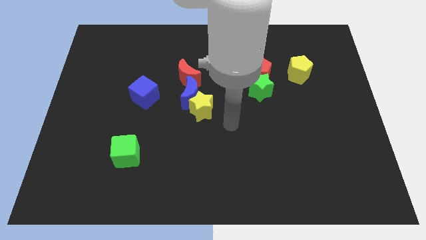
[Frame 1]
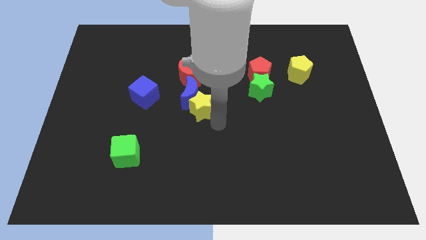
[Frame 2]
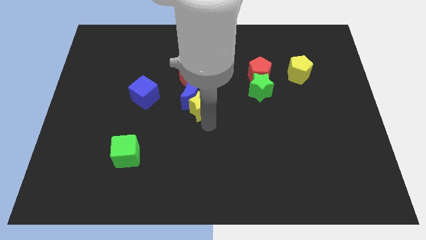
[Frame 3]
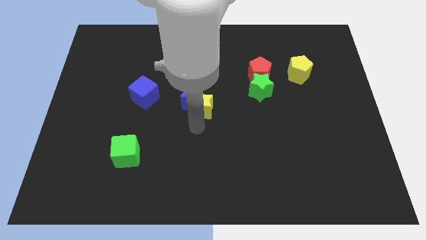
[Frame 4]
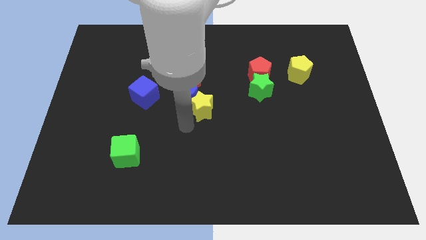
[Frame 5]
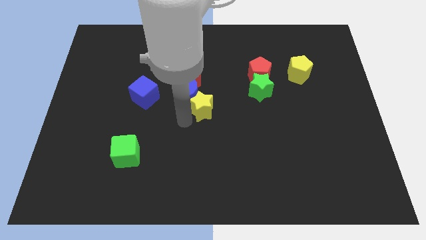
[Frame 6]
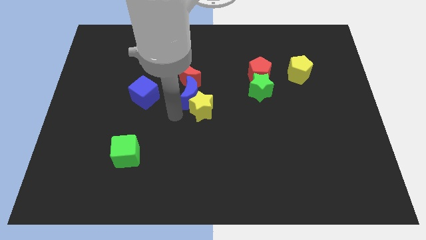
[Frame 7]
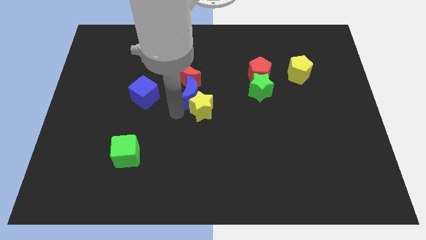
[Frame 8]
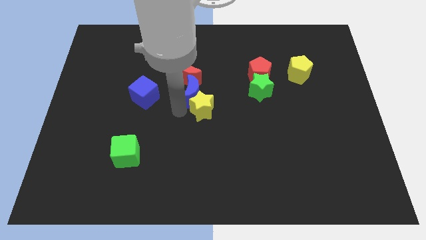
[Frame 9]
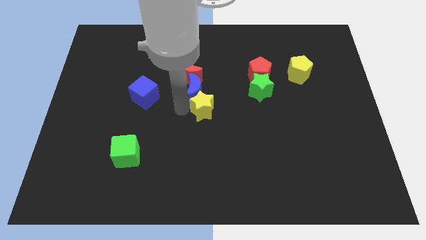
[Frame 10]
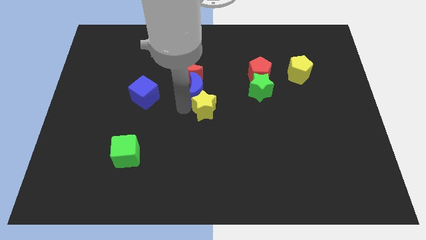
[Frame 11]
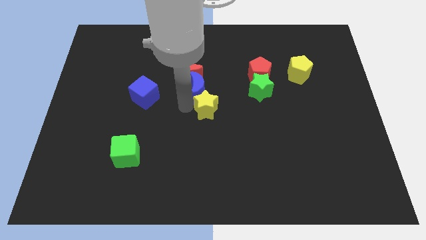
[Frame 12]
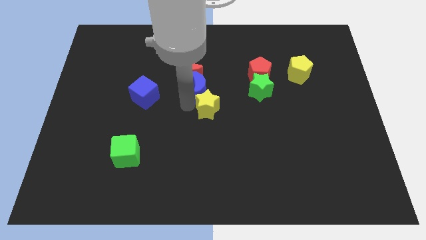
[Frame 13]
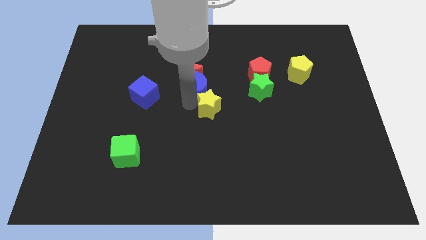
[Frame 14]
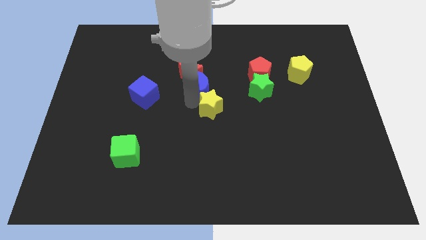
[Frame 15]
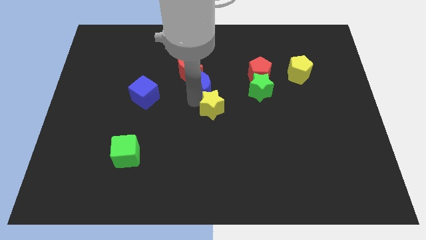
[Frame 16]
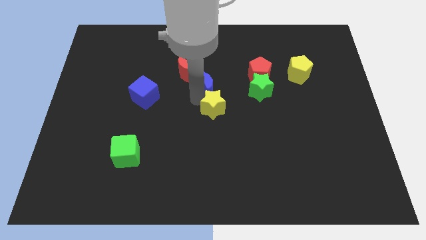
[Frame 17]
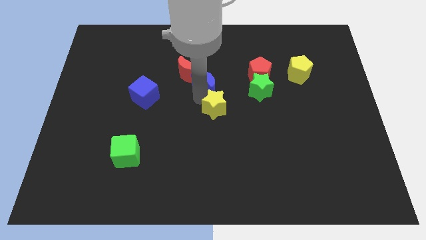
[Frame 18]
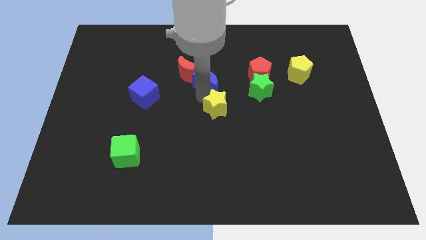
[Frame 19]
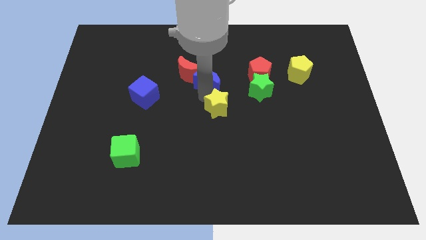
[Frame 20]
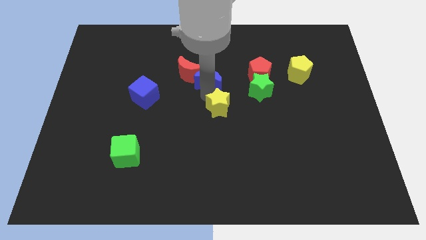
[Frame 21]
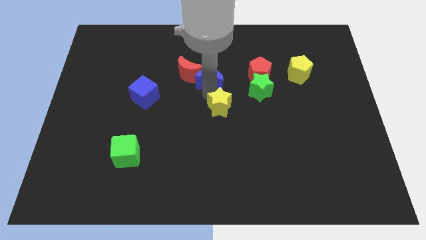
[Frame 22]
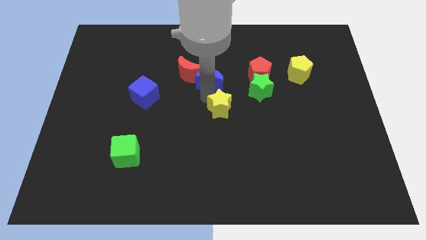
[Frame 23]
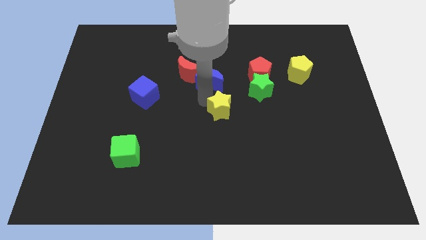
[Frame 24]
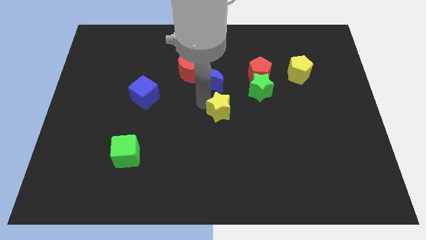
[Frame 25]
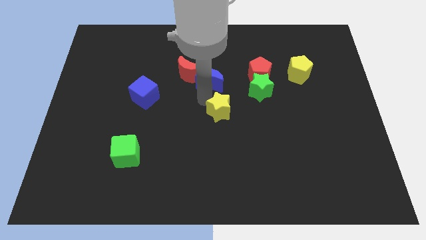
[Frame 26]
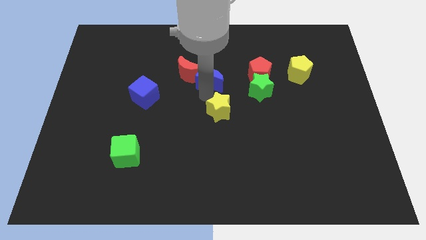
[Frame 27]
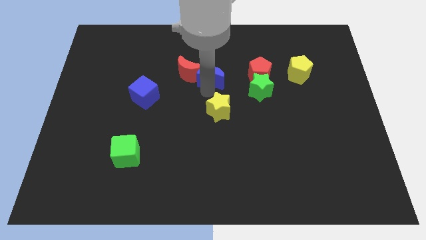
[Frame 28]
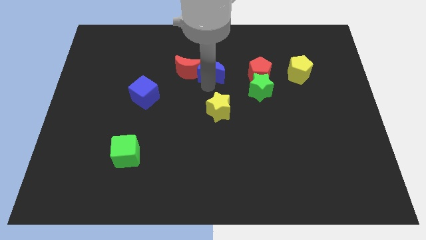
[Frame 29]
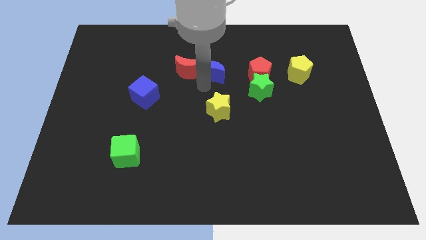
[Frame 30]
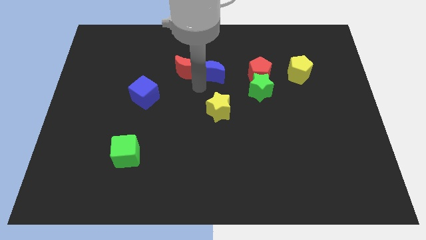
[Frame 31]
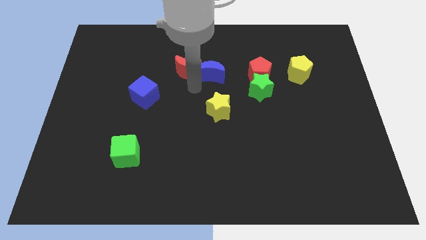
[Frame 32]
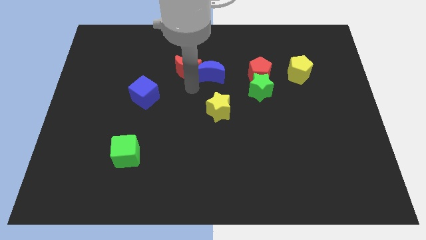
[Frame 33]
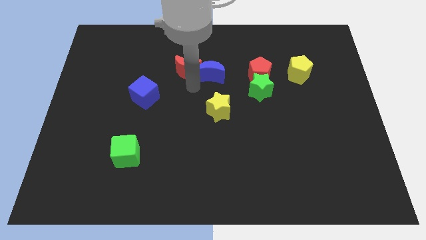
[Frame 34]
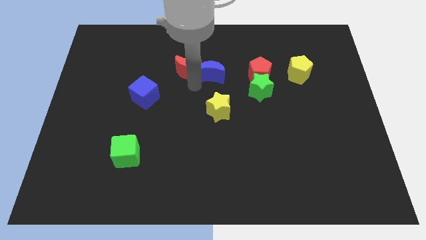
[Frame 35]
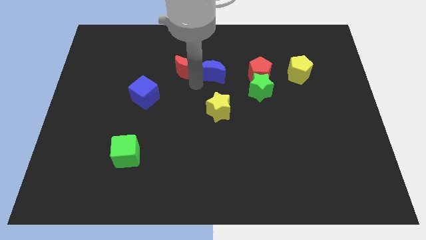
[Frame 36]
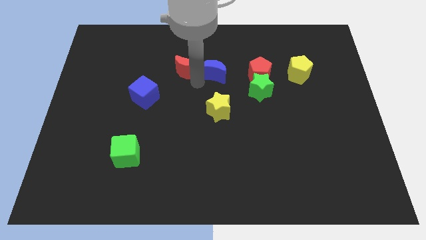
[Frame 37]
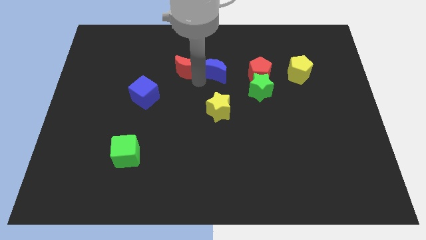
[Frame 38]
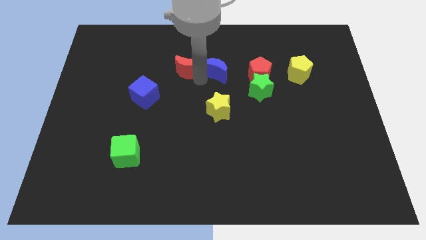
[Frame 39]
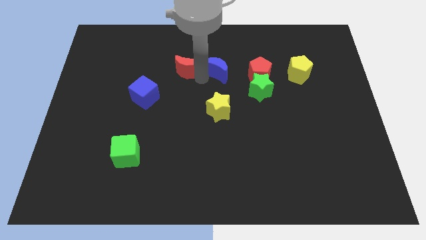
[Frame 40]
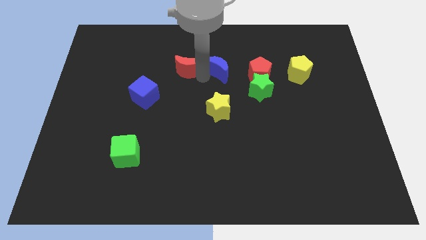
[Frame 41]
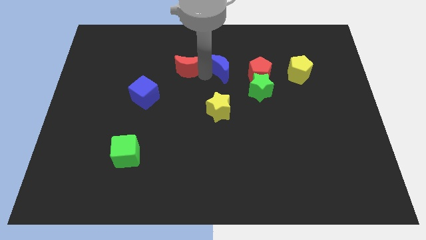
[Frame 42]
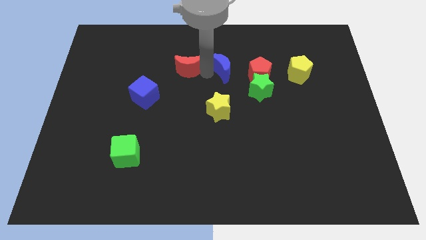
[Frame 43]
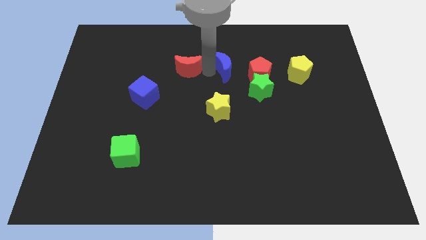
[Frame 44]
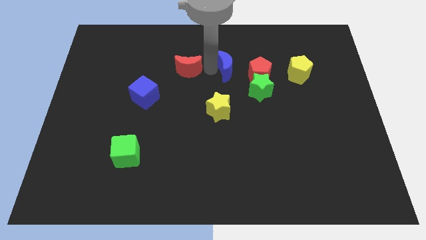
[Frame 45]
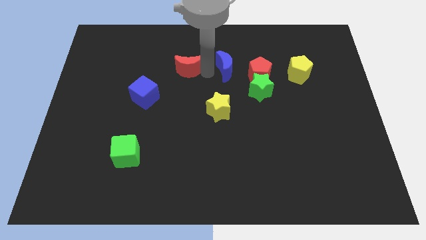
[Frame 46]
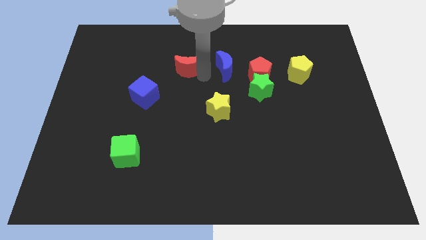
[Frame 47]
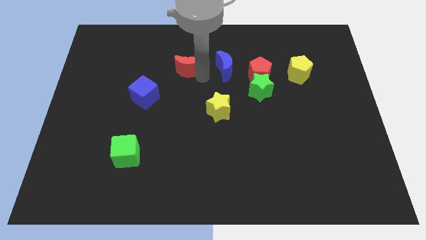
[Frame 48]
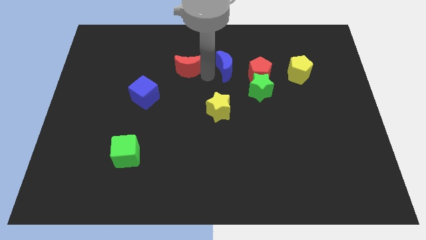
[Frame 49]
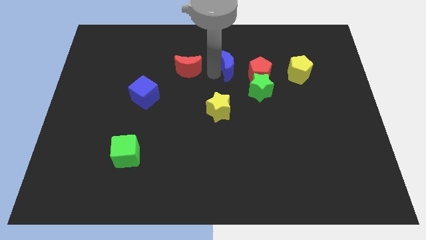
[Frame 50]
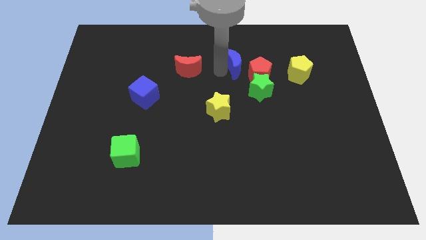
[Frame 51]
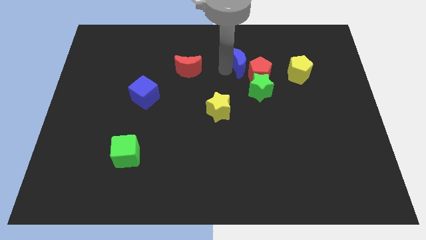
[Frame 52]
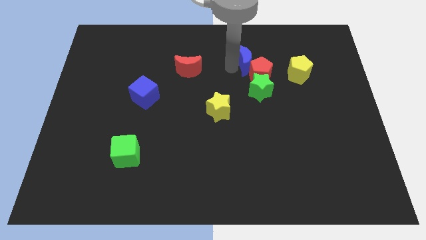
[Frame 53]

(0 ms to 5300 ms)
put the blue moon above the green star

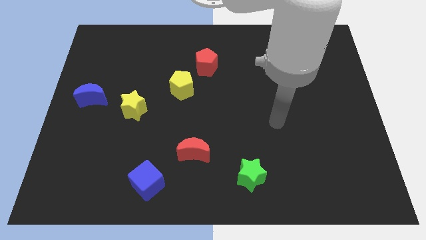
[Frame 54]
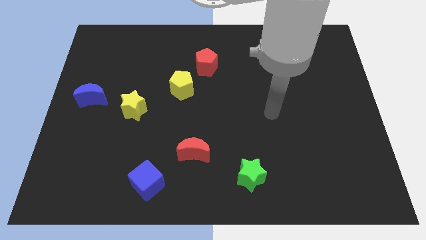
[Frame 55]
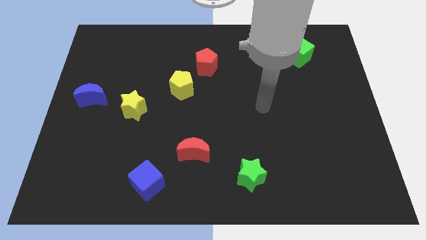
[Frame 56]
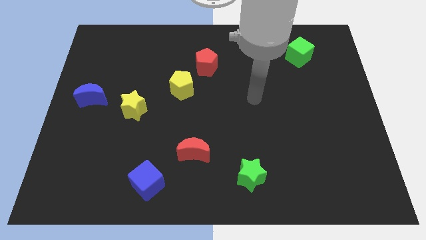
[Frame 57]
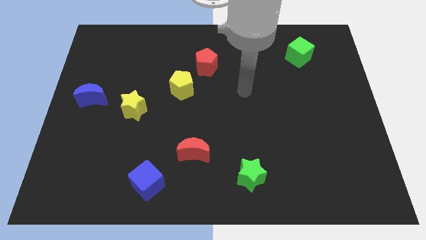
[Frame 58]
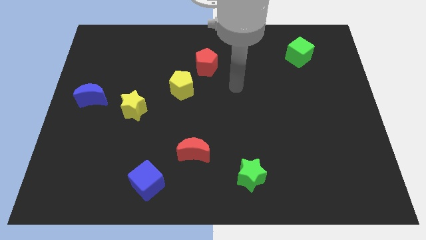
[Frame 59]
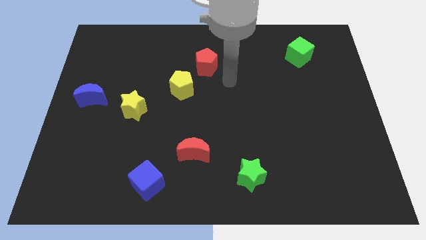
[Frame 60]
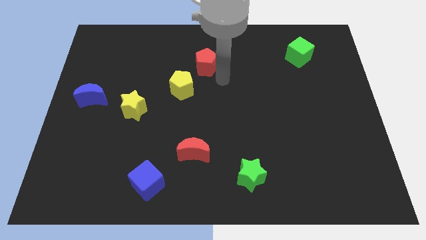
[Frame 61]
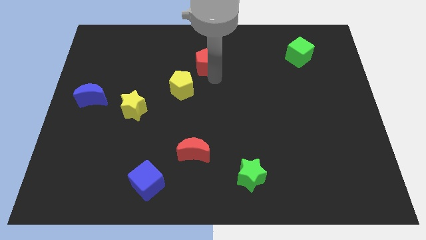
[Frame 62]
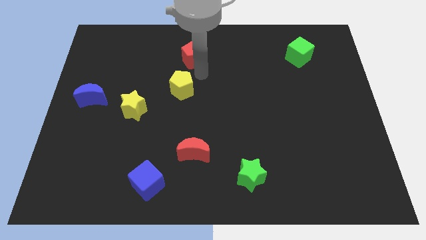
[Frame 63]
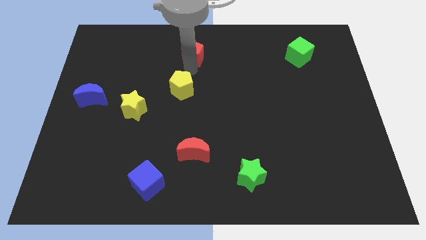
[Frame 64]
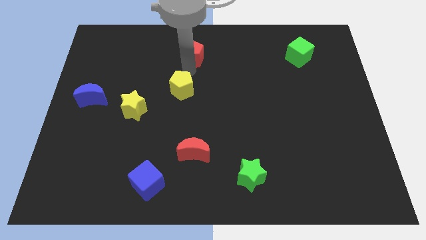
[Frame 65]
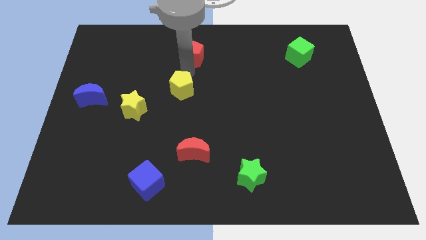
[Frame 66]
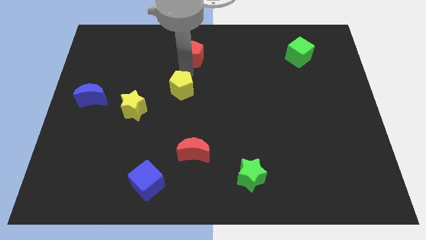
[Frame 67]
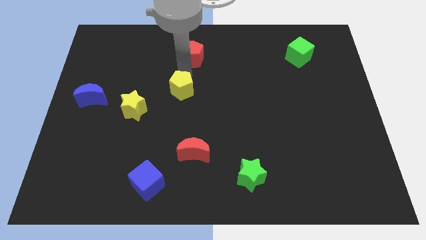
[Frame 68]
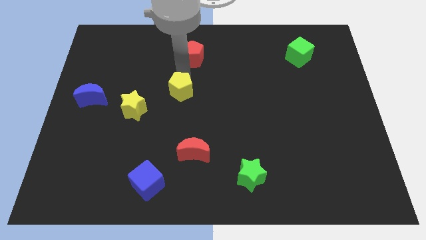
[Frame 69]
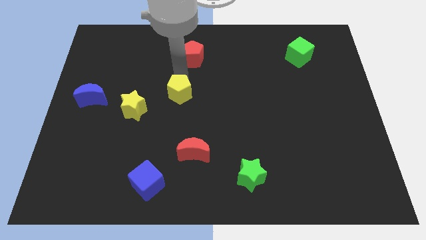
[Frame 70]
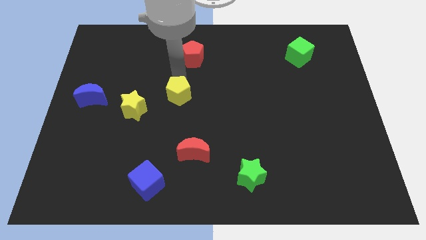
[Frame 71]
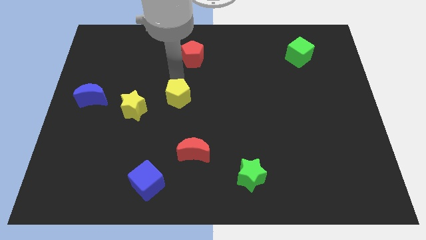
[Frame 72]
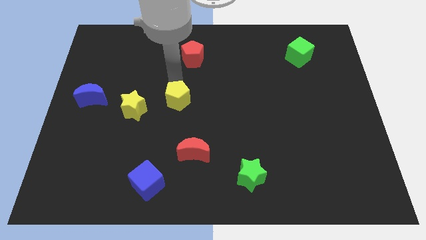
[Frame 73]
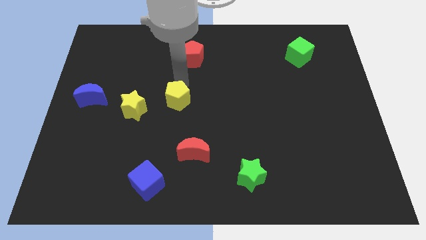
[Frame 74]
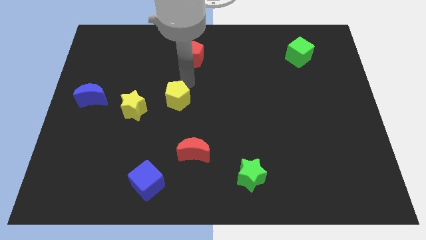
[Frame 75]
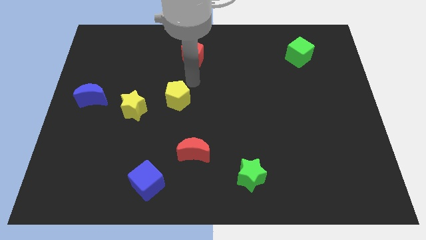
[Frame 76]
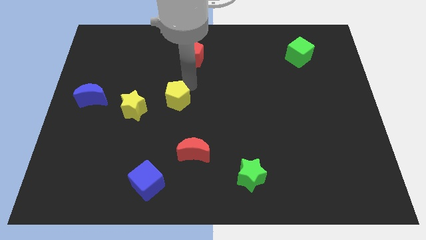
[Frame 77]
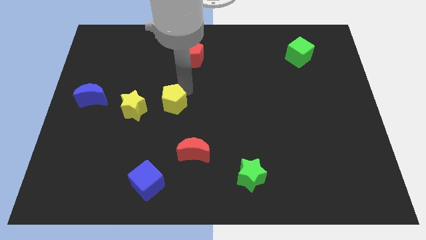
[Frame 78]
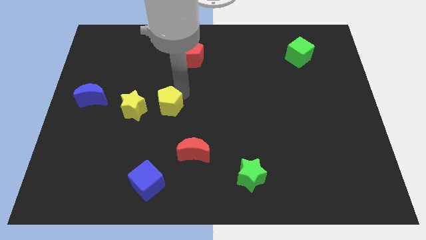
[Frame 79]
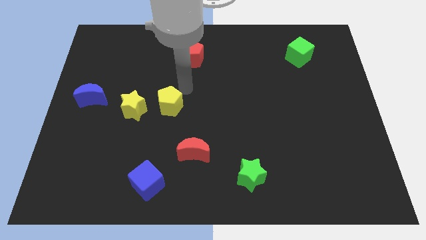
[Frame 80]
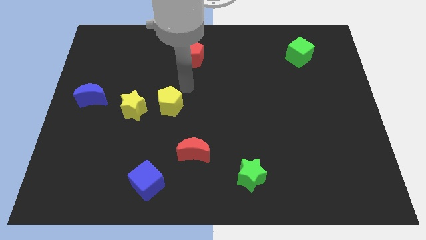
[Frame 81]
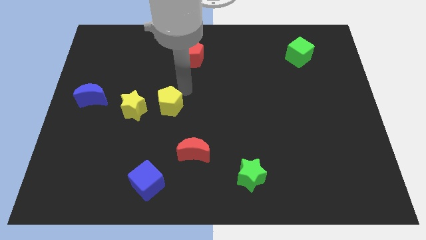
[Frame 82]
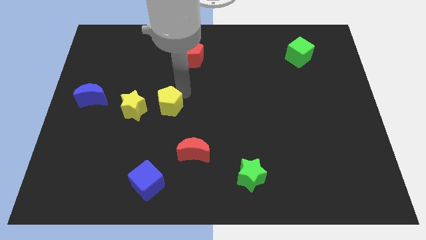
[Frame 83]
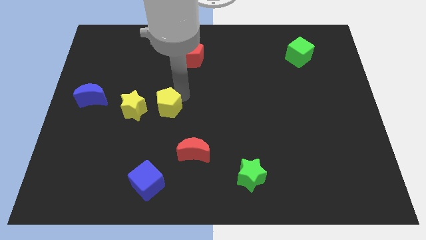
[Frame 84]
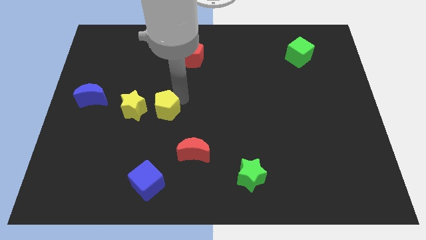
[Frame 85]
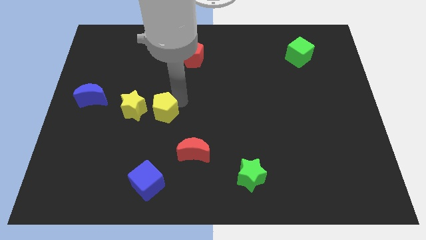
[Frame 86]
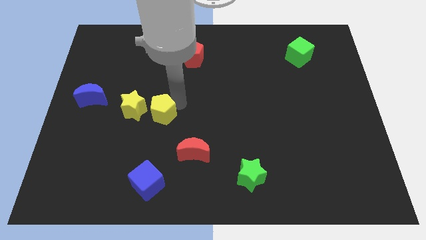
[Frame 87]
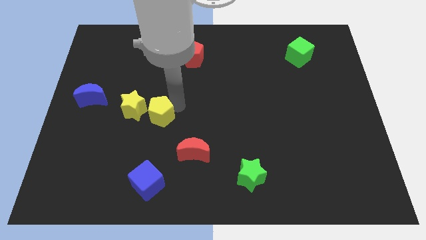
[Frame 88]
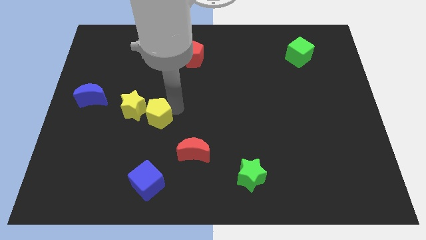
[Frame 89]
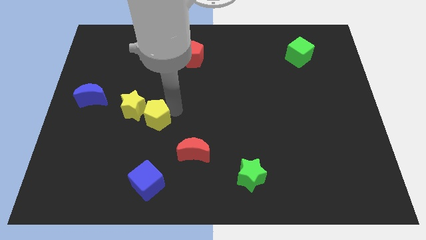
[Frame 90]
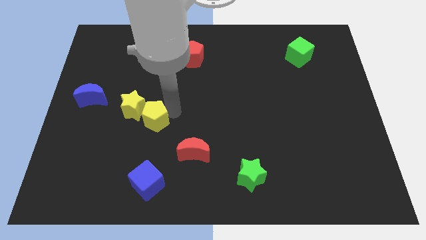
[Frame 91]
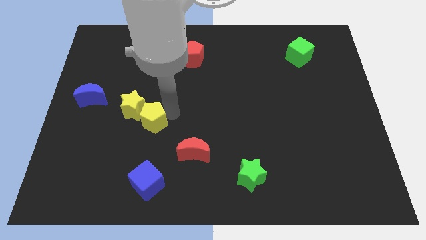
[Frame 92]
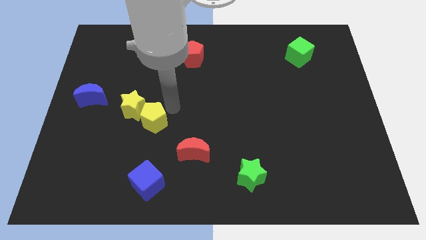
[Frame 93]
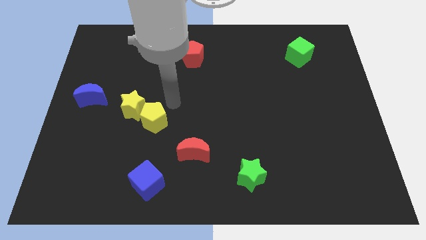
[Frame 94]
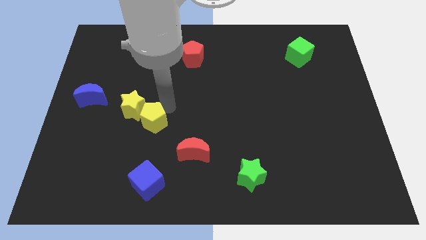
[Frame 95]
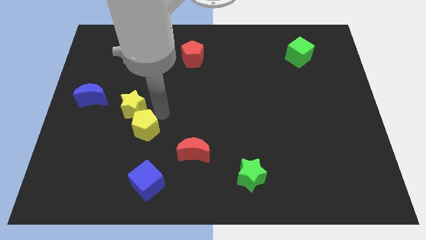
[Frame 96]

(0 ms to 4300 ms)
put the yellow pentagon to the bottom side of the yellow star
